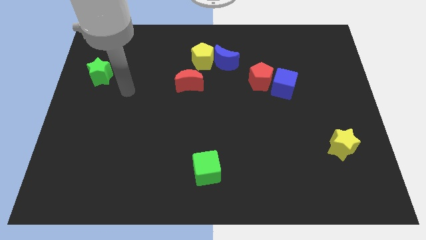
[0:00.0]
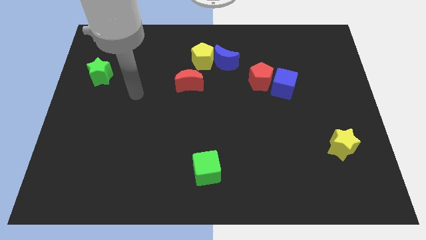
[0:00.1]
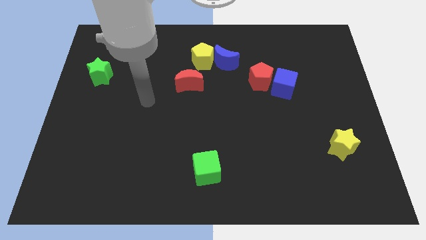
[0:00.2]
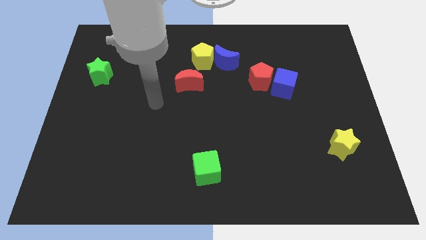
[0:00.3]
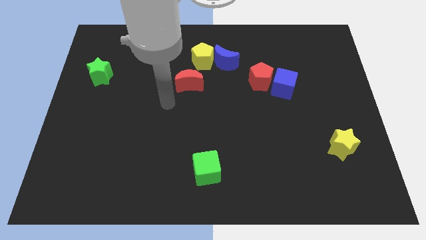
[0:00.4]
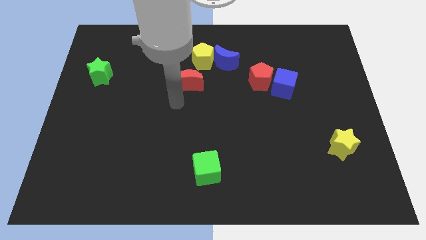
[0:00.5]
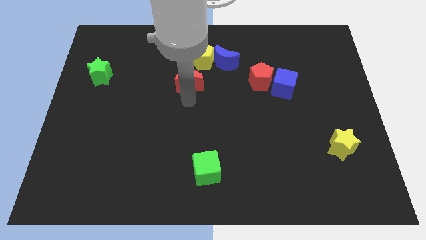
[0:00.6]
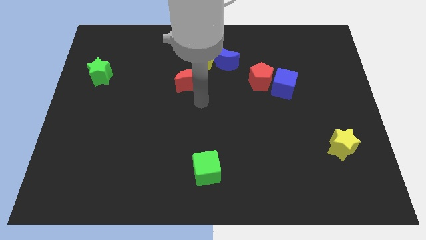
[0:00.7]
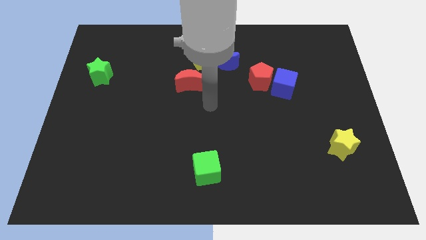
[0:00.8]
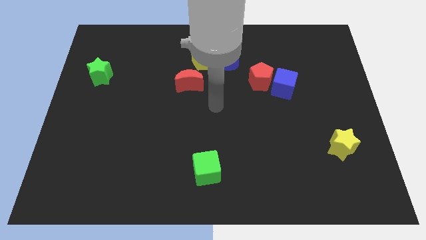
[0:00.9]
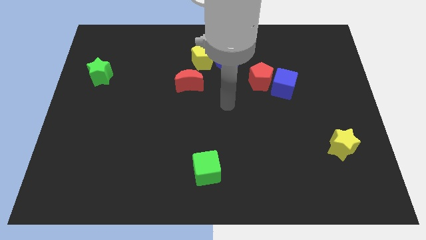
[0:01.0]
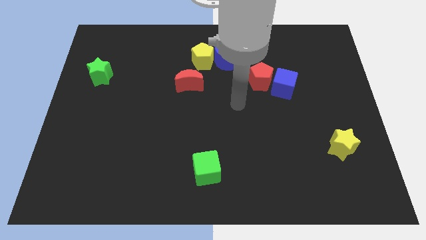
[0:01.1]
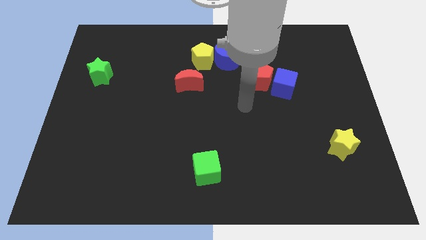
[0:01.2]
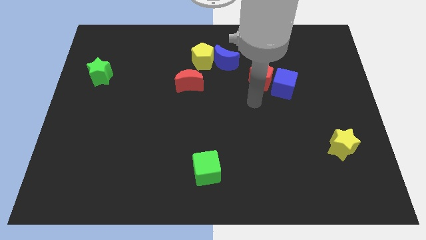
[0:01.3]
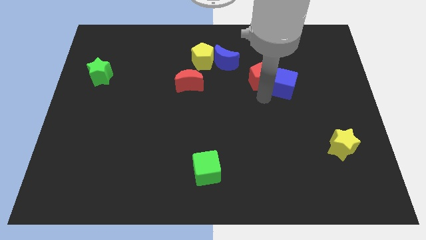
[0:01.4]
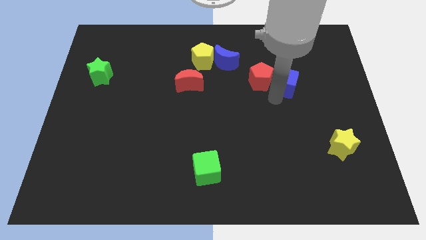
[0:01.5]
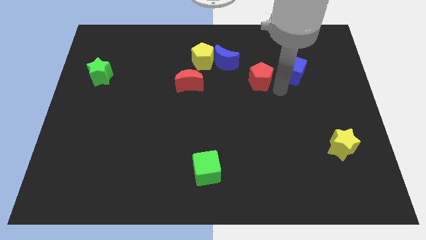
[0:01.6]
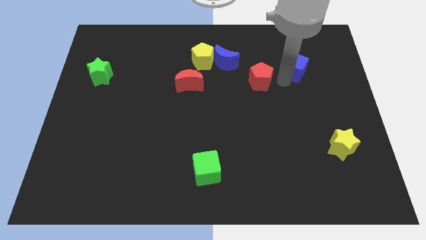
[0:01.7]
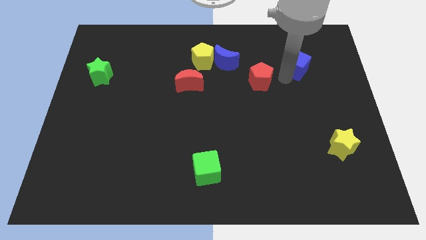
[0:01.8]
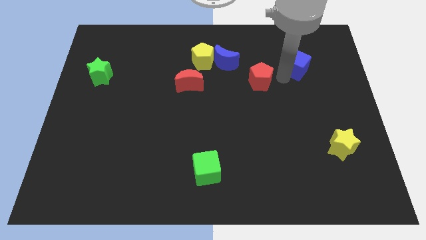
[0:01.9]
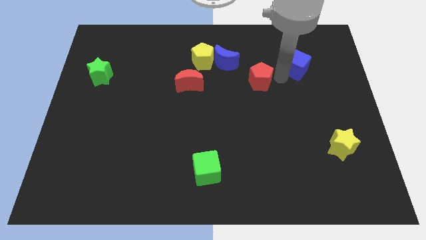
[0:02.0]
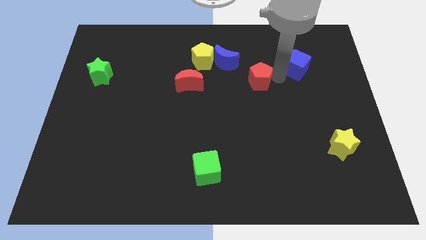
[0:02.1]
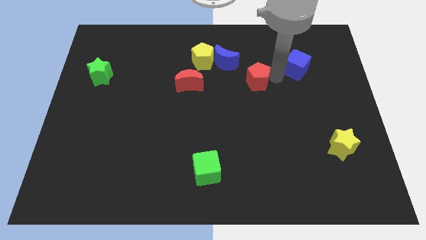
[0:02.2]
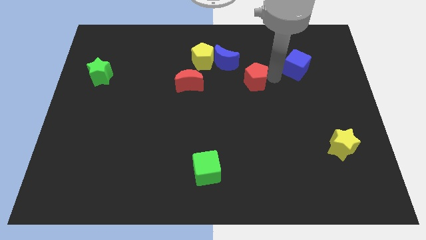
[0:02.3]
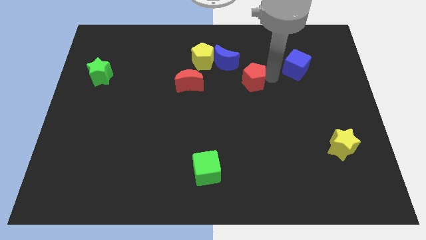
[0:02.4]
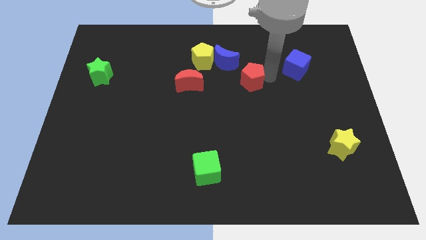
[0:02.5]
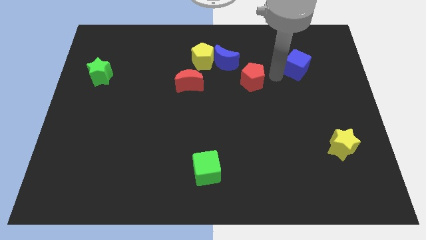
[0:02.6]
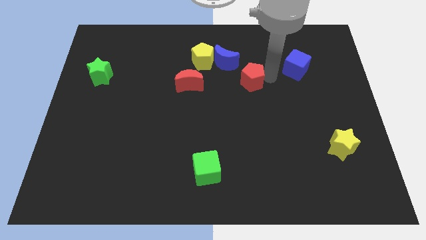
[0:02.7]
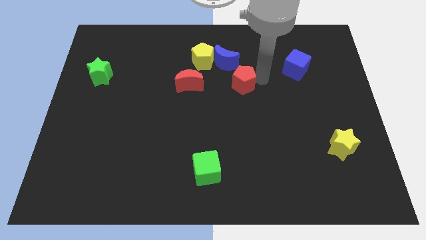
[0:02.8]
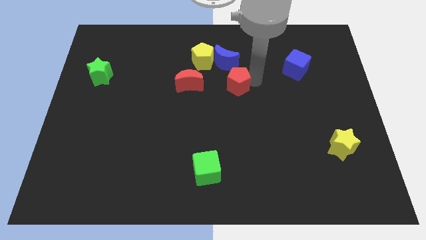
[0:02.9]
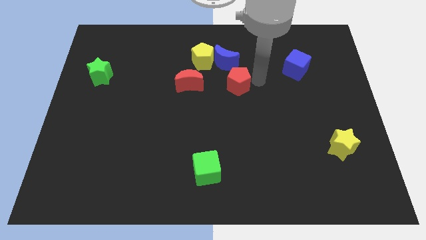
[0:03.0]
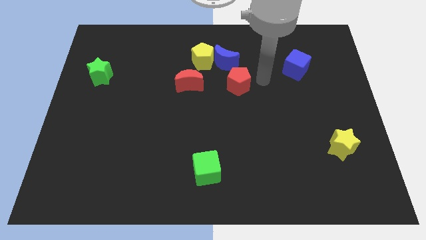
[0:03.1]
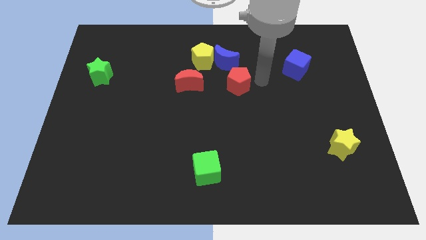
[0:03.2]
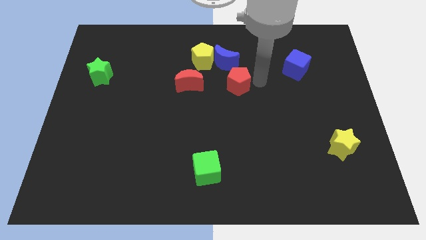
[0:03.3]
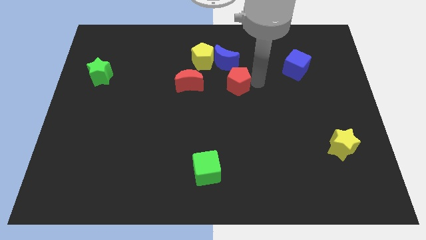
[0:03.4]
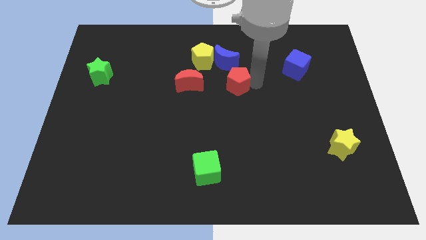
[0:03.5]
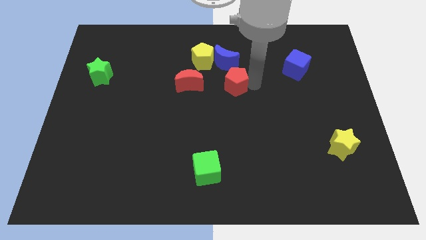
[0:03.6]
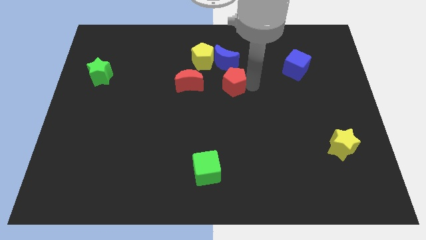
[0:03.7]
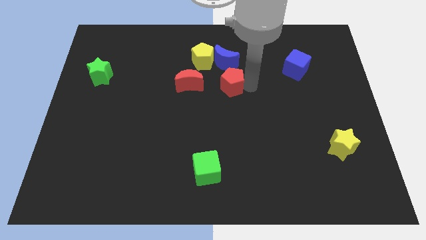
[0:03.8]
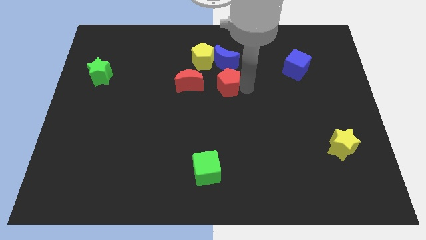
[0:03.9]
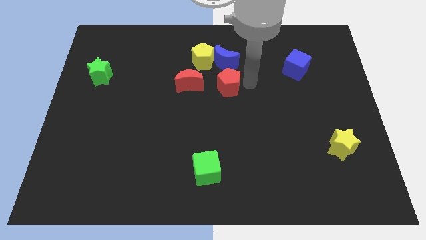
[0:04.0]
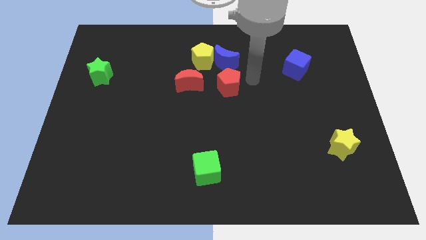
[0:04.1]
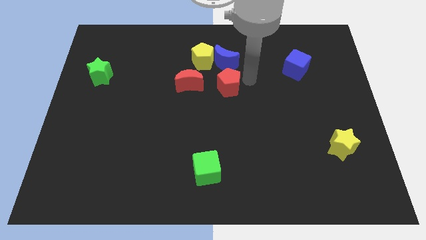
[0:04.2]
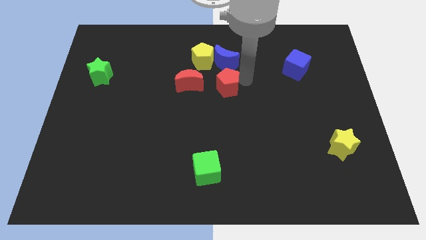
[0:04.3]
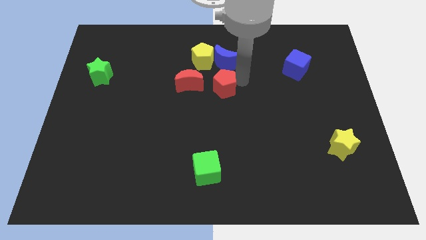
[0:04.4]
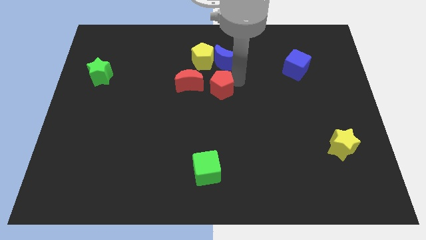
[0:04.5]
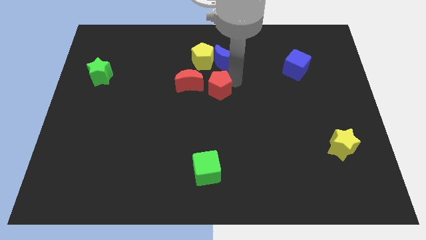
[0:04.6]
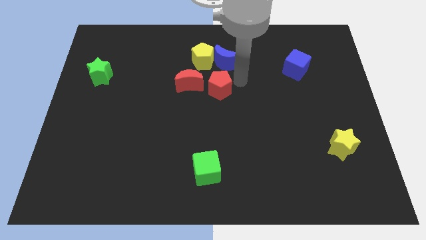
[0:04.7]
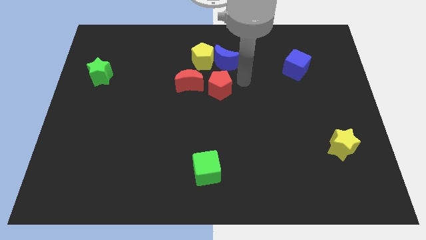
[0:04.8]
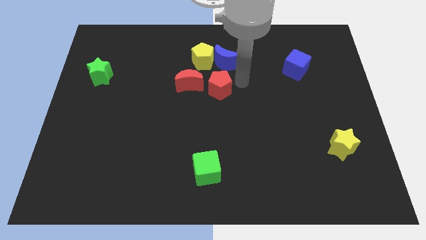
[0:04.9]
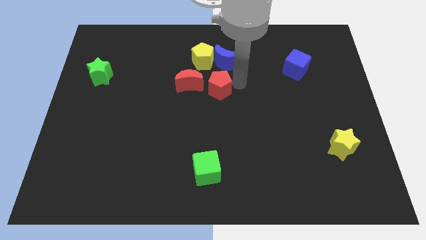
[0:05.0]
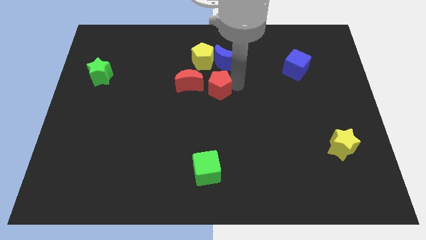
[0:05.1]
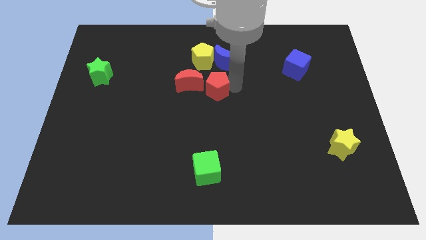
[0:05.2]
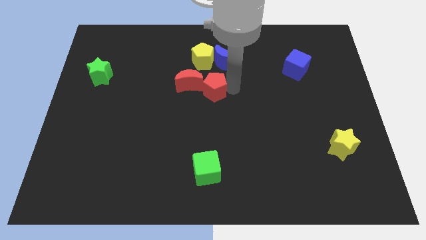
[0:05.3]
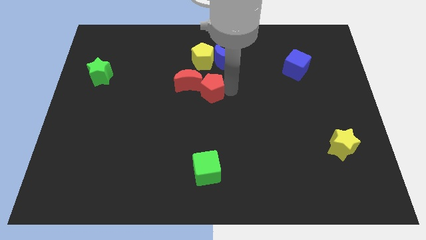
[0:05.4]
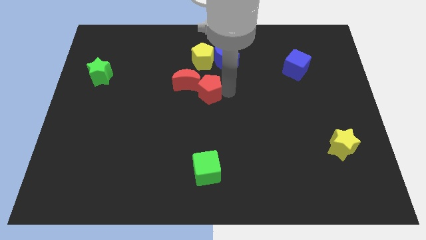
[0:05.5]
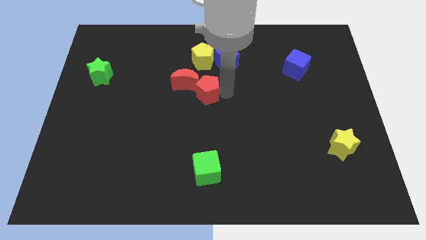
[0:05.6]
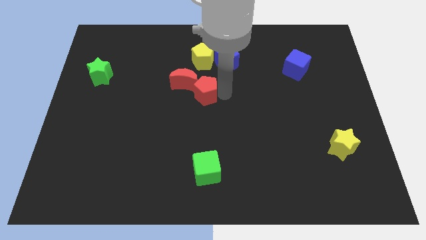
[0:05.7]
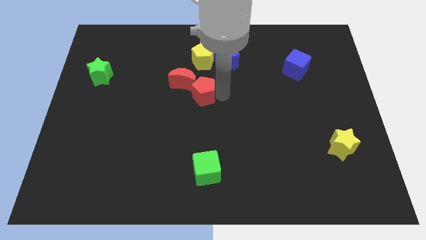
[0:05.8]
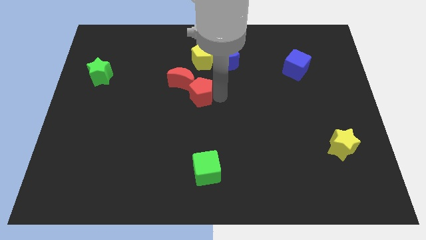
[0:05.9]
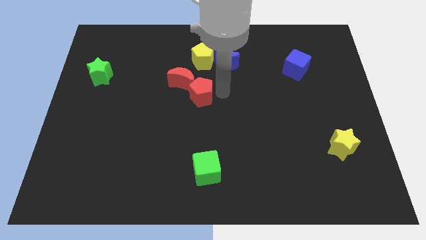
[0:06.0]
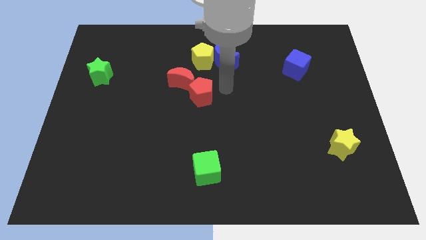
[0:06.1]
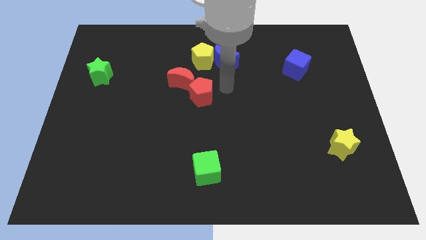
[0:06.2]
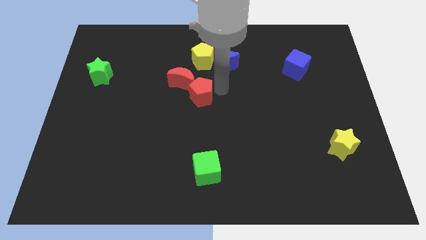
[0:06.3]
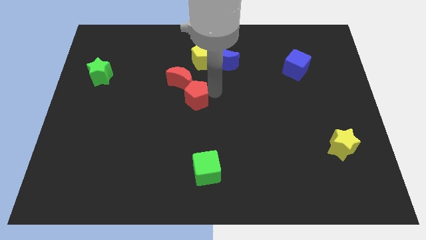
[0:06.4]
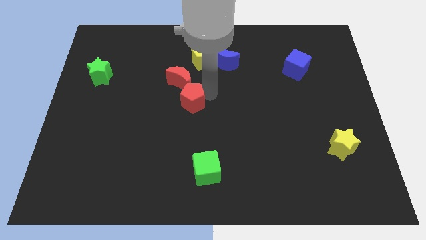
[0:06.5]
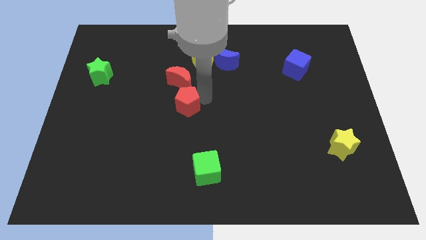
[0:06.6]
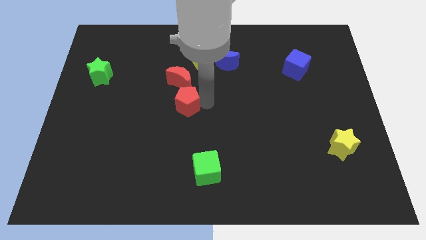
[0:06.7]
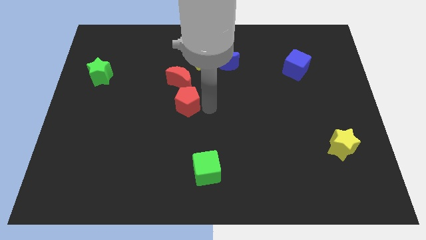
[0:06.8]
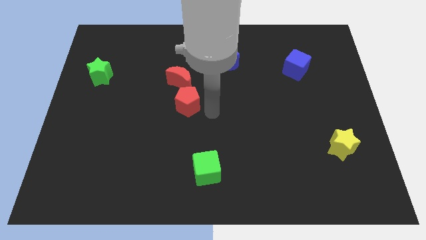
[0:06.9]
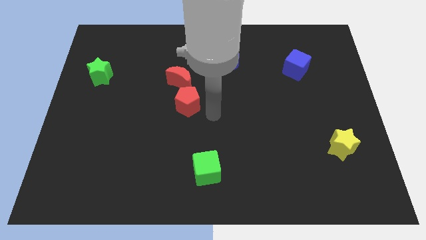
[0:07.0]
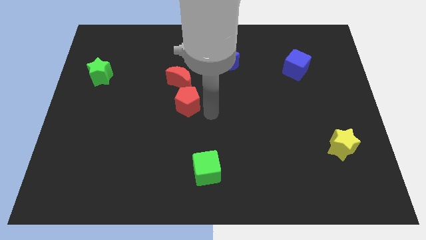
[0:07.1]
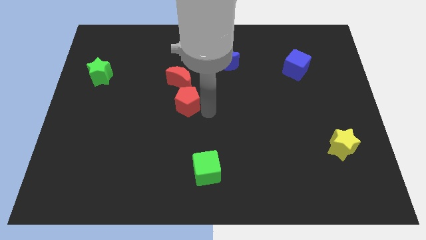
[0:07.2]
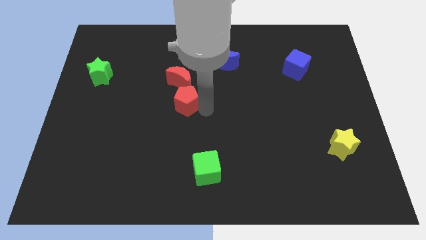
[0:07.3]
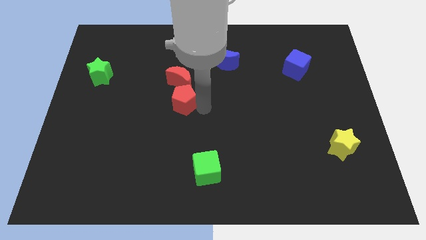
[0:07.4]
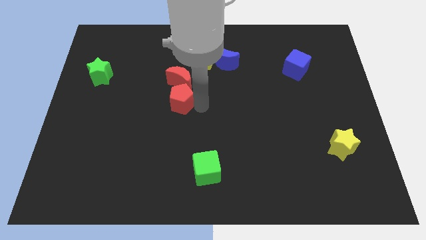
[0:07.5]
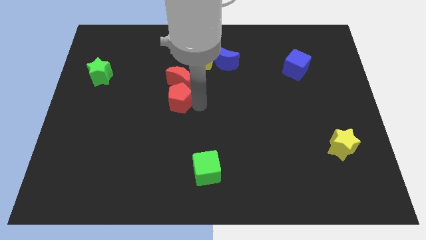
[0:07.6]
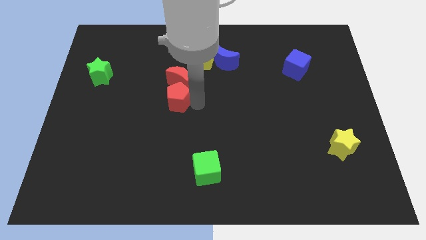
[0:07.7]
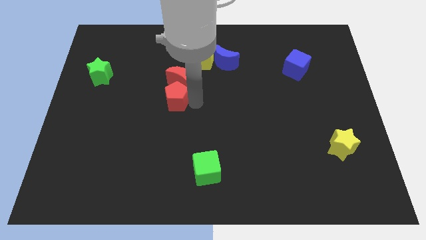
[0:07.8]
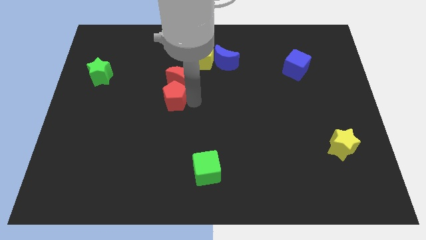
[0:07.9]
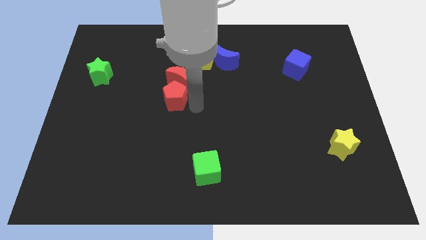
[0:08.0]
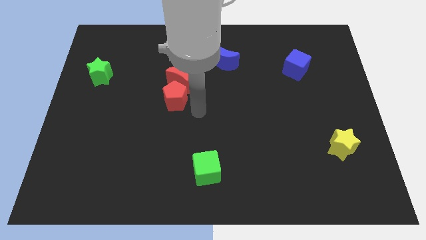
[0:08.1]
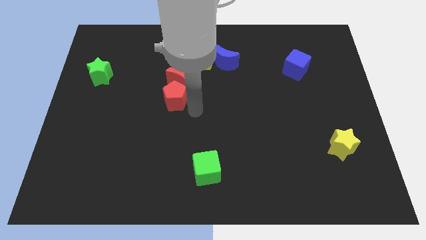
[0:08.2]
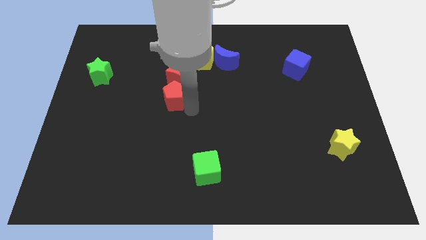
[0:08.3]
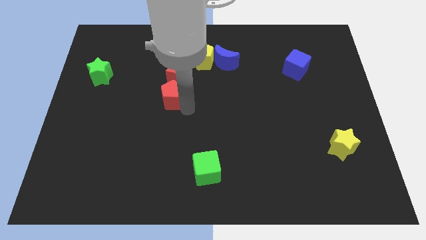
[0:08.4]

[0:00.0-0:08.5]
move the red pentagon to the left
